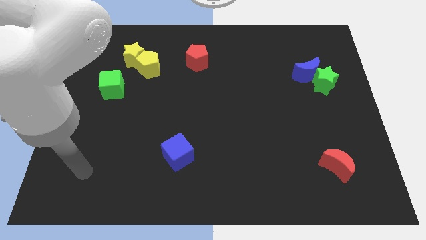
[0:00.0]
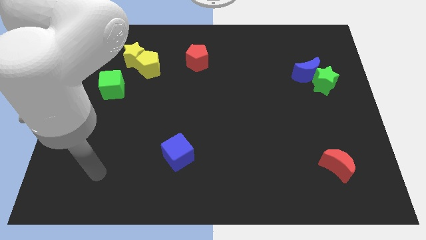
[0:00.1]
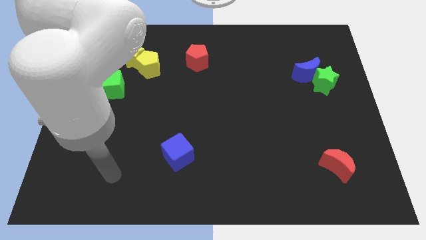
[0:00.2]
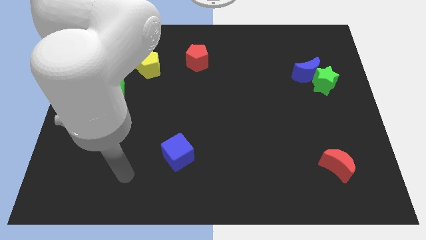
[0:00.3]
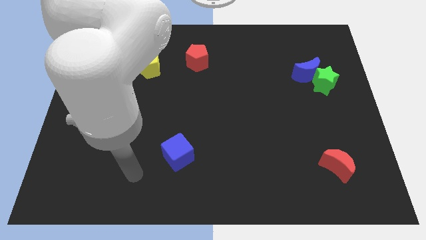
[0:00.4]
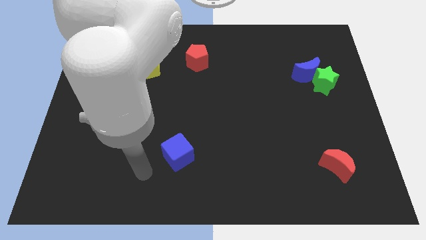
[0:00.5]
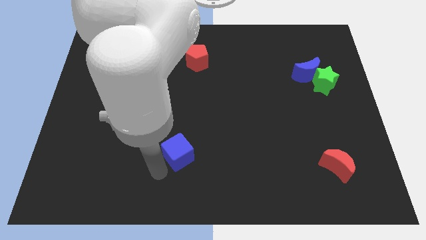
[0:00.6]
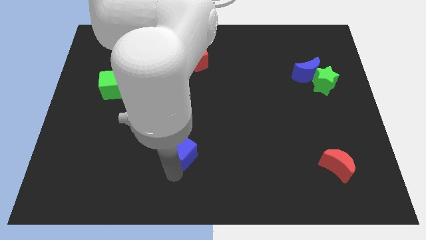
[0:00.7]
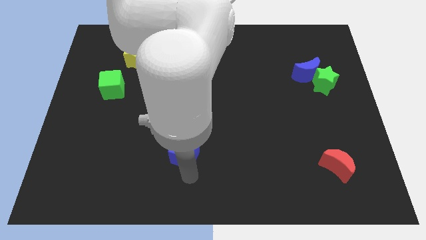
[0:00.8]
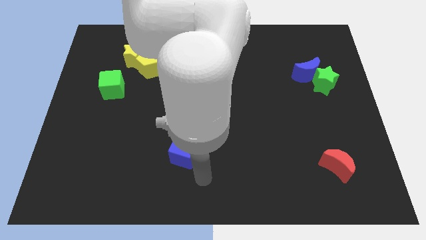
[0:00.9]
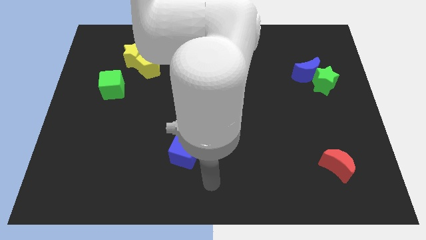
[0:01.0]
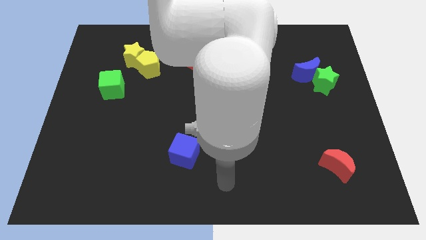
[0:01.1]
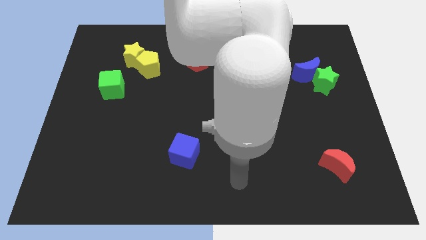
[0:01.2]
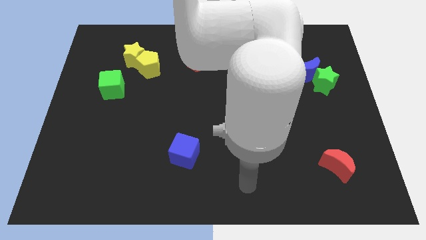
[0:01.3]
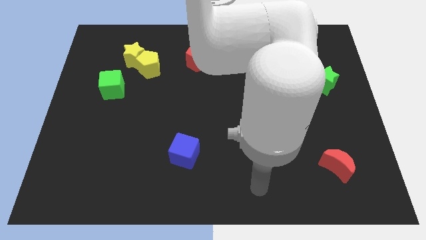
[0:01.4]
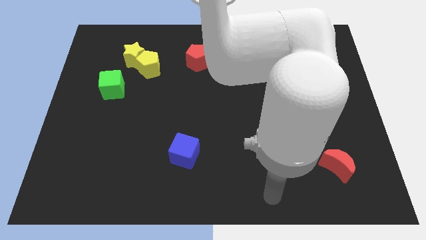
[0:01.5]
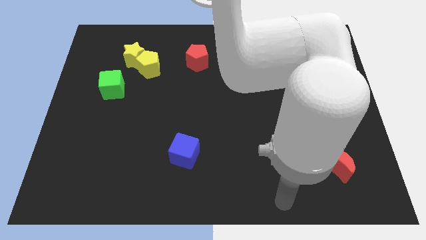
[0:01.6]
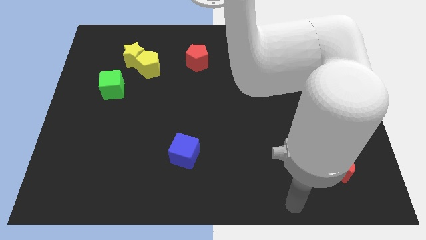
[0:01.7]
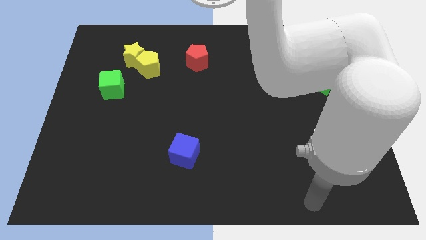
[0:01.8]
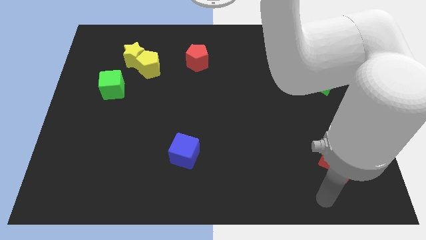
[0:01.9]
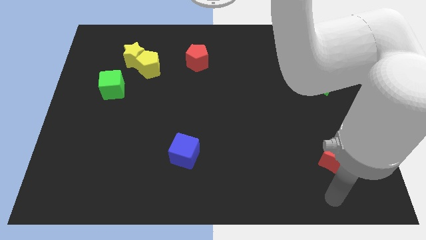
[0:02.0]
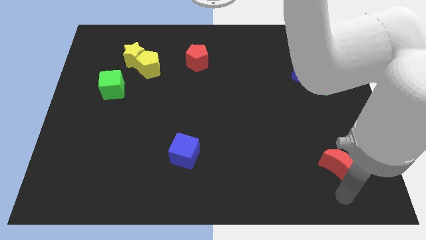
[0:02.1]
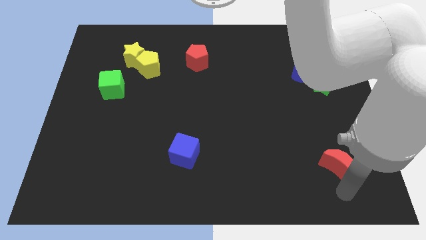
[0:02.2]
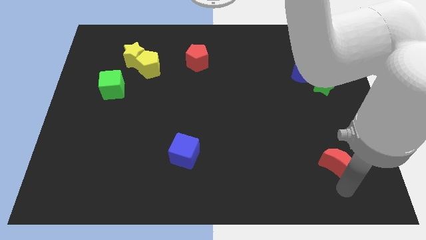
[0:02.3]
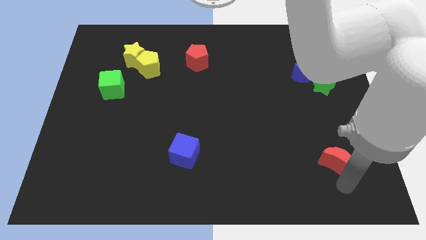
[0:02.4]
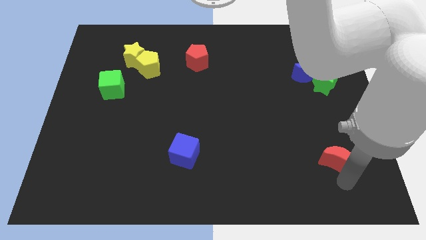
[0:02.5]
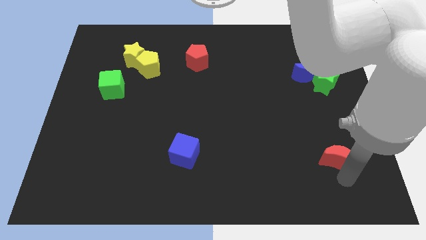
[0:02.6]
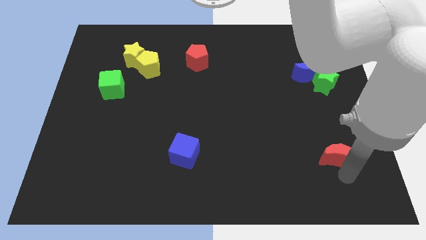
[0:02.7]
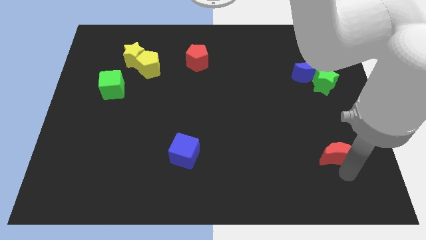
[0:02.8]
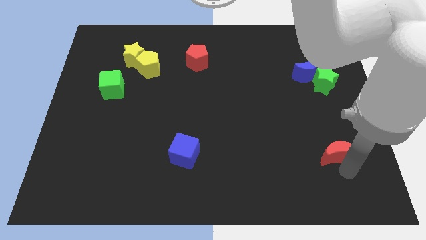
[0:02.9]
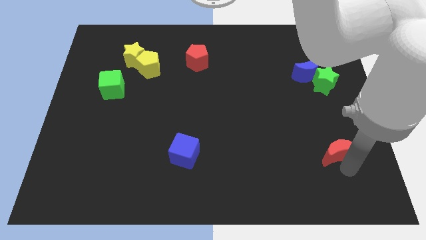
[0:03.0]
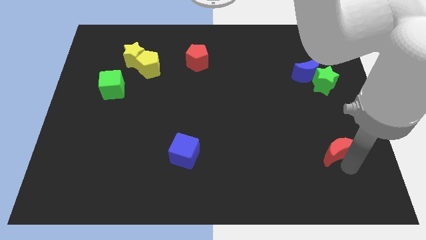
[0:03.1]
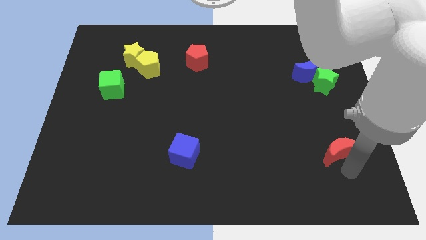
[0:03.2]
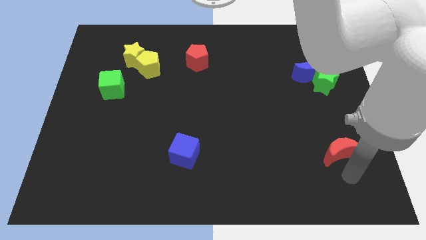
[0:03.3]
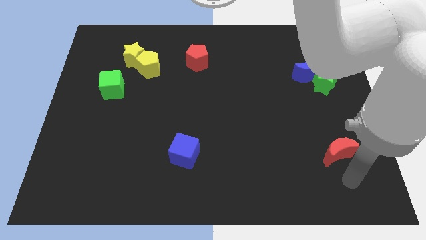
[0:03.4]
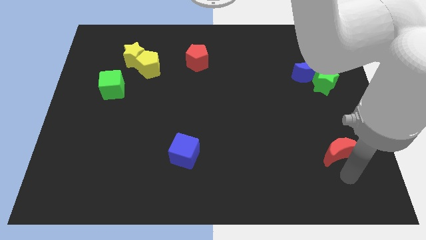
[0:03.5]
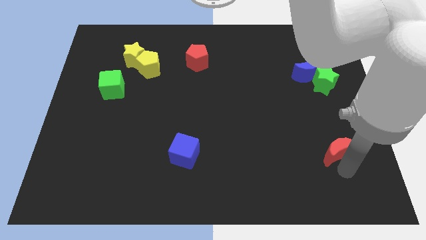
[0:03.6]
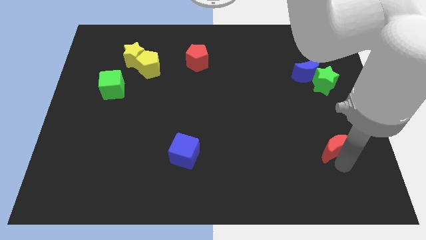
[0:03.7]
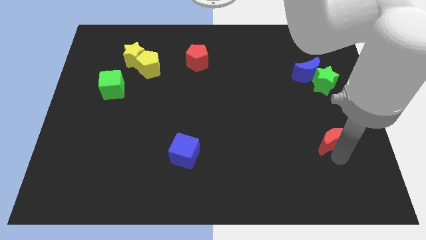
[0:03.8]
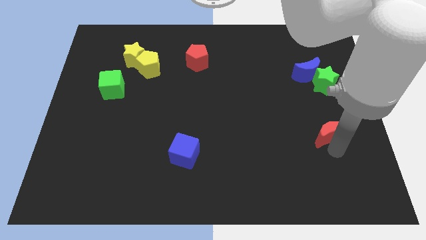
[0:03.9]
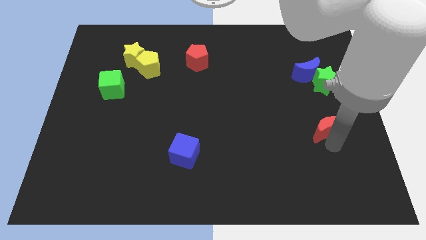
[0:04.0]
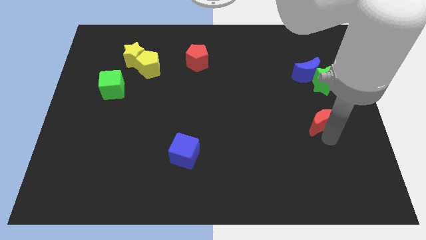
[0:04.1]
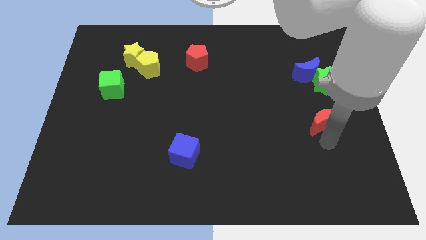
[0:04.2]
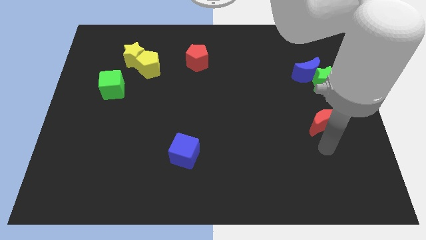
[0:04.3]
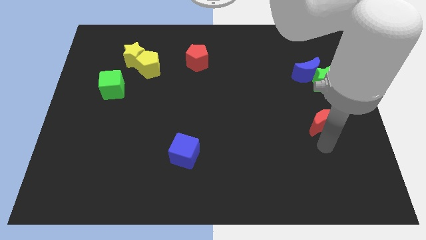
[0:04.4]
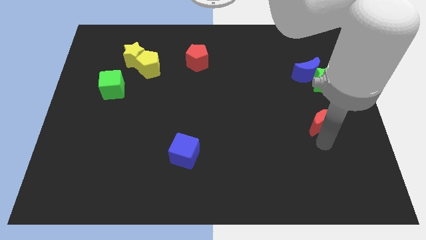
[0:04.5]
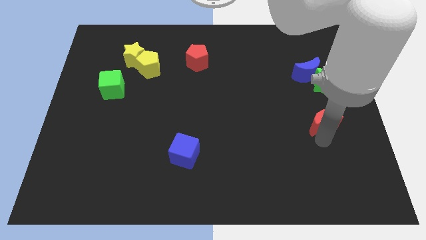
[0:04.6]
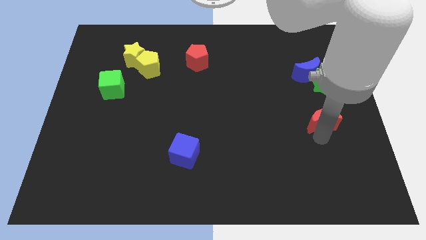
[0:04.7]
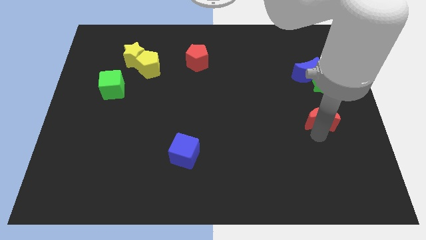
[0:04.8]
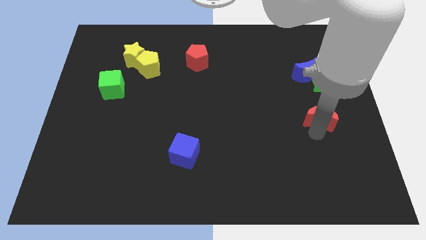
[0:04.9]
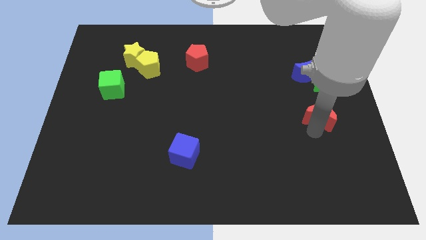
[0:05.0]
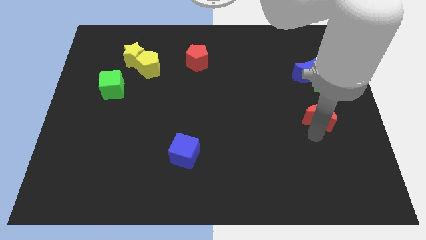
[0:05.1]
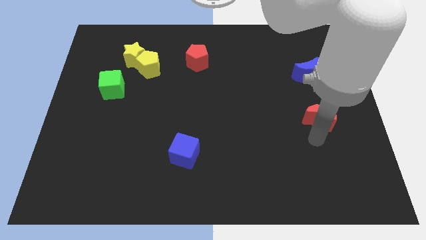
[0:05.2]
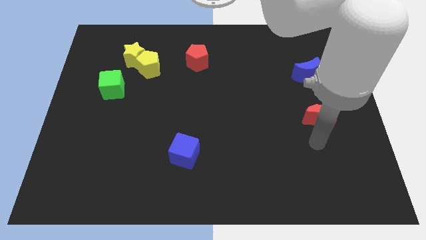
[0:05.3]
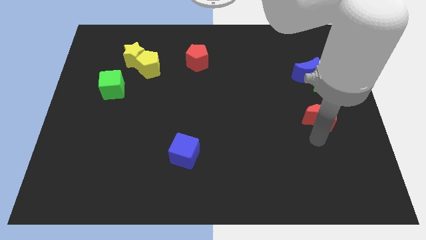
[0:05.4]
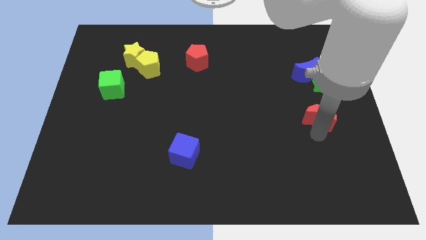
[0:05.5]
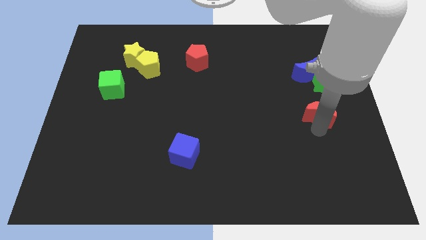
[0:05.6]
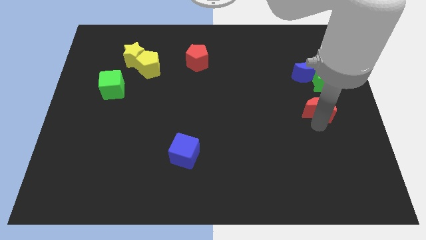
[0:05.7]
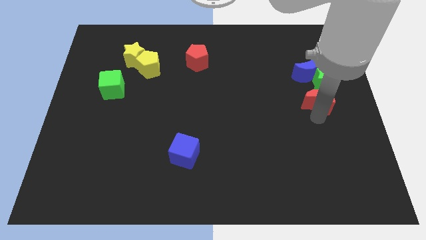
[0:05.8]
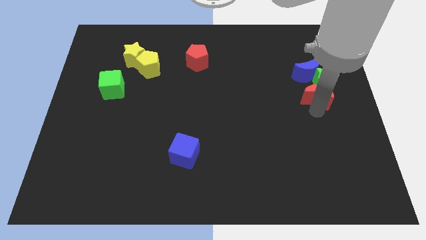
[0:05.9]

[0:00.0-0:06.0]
move the red moon towards the green star

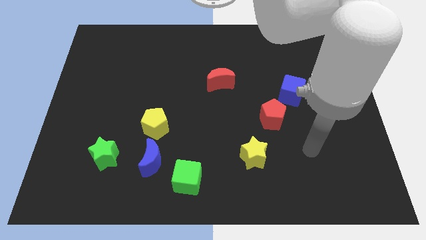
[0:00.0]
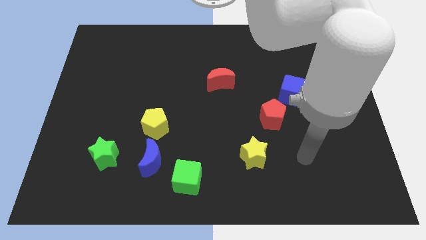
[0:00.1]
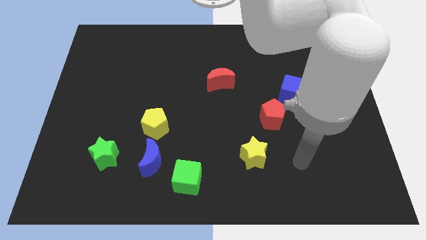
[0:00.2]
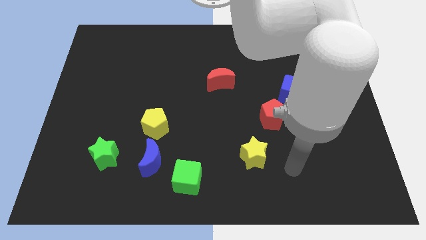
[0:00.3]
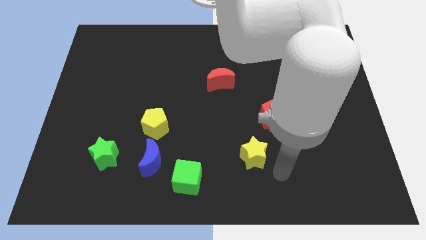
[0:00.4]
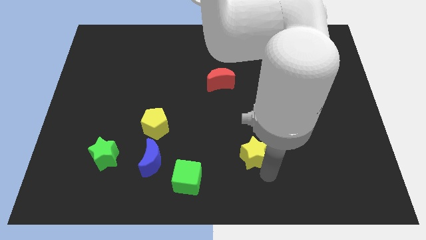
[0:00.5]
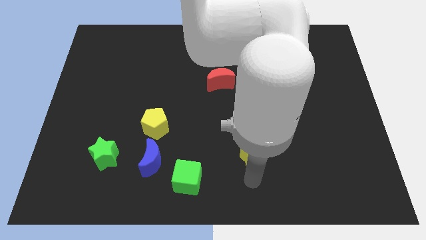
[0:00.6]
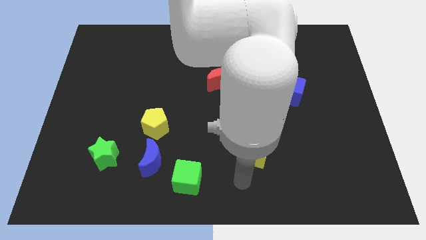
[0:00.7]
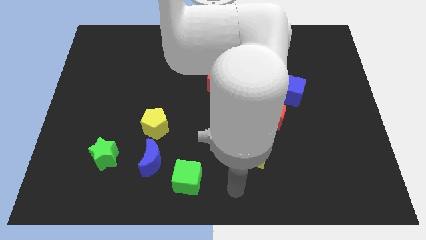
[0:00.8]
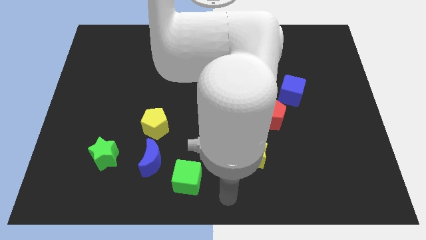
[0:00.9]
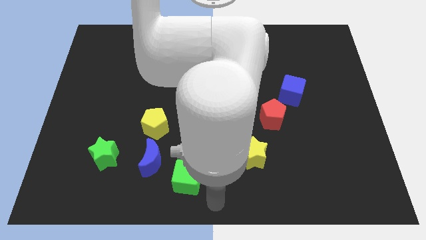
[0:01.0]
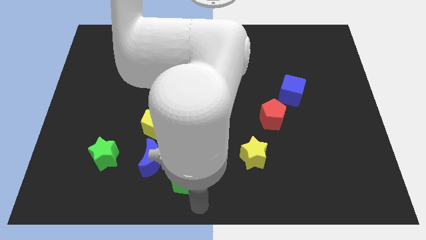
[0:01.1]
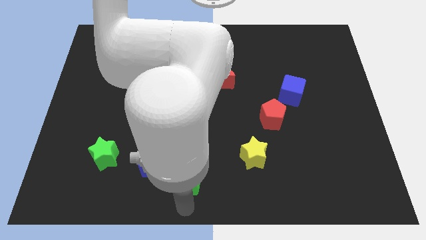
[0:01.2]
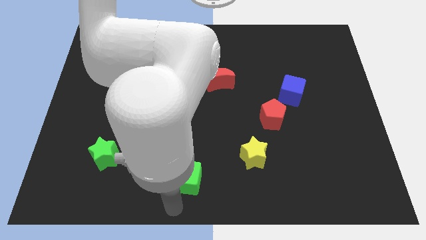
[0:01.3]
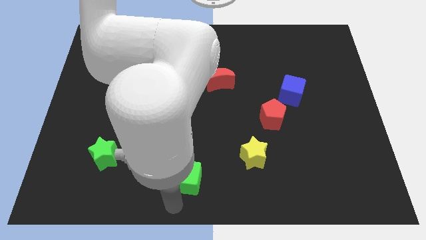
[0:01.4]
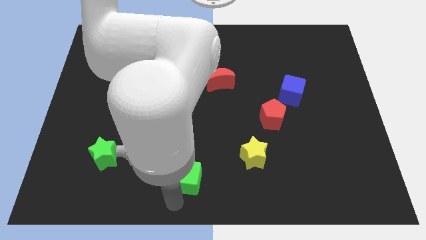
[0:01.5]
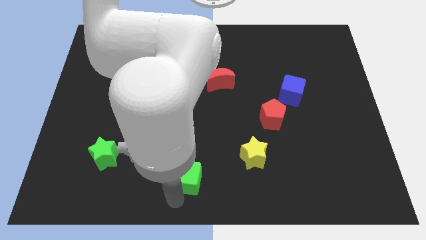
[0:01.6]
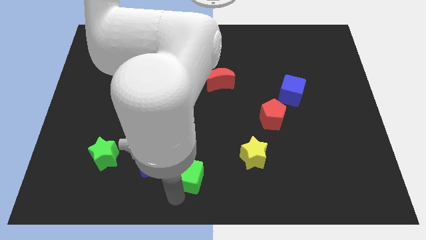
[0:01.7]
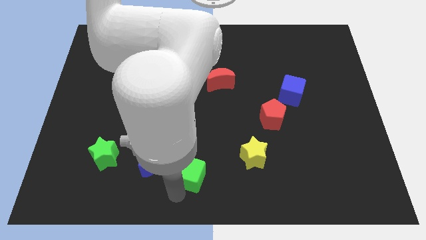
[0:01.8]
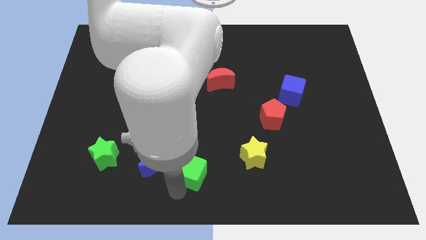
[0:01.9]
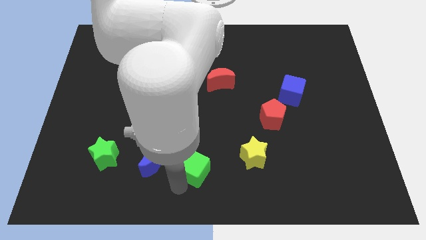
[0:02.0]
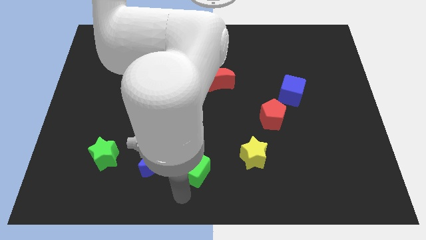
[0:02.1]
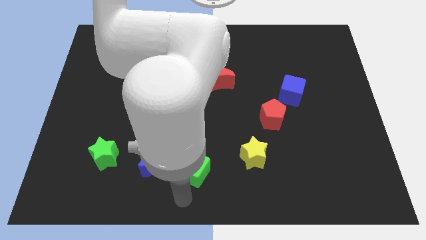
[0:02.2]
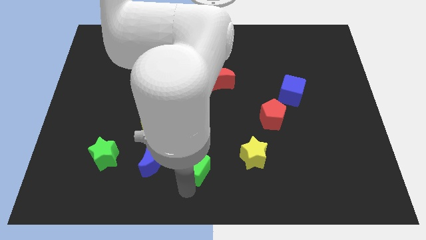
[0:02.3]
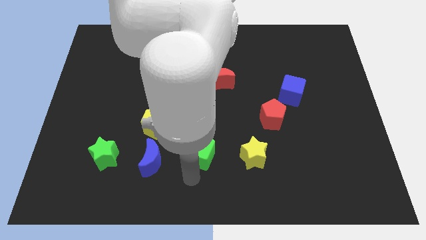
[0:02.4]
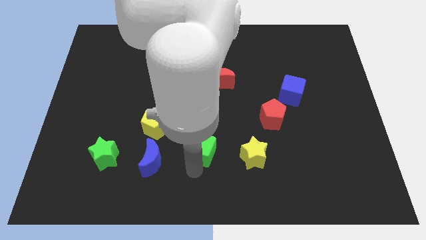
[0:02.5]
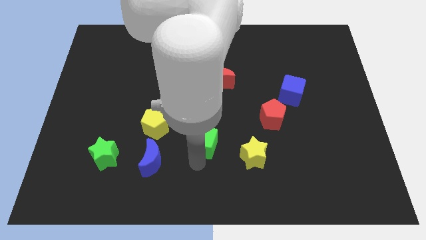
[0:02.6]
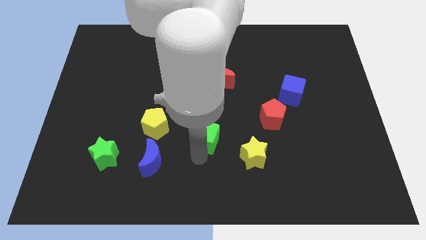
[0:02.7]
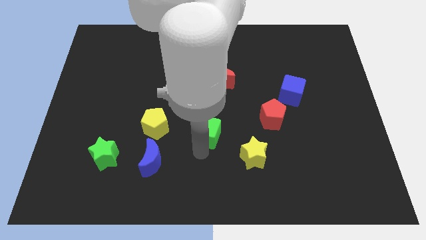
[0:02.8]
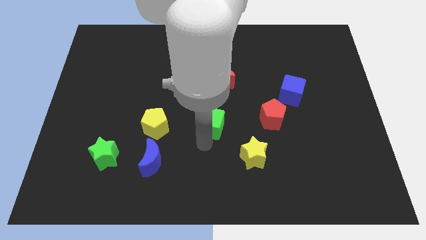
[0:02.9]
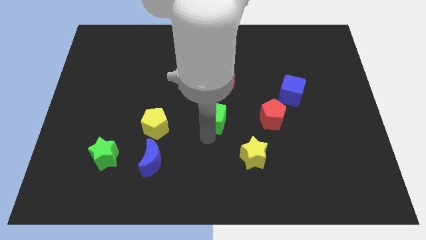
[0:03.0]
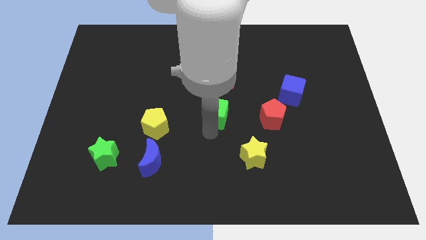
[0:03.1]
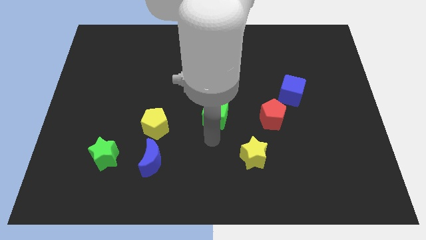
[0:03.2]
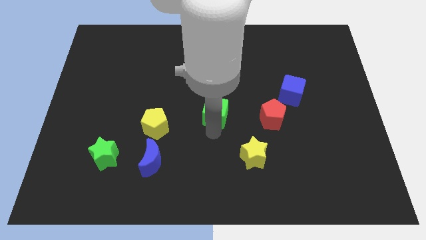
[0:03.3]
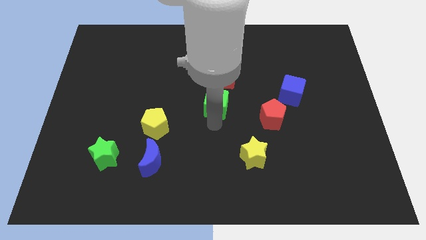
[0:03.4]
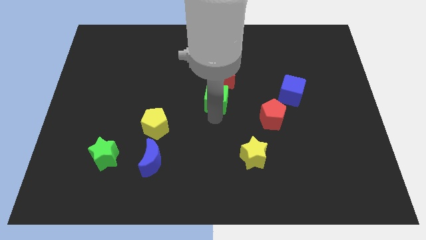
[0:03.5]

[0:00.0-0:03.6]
push the green cube to the red moon
